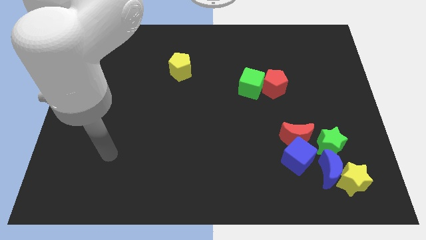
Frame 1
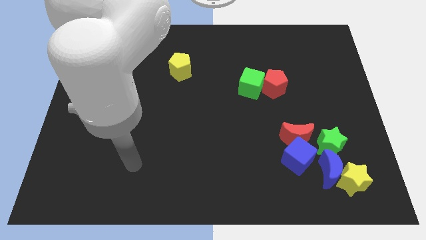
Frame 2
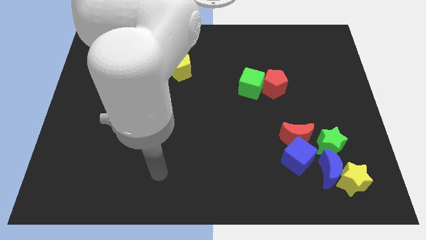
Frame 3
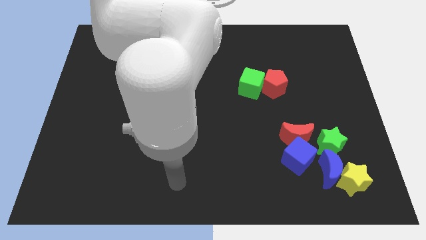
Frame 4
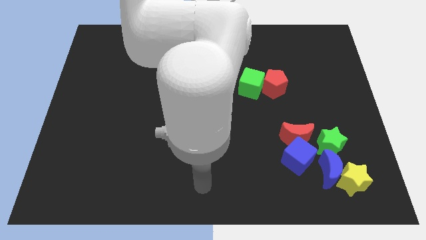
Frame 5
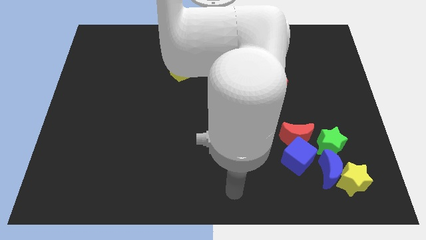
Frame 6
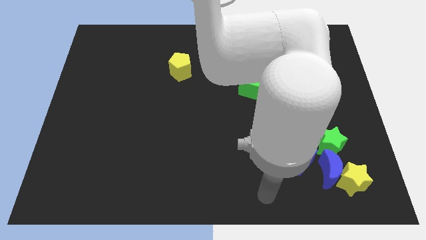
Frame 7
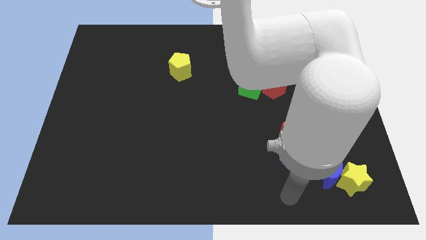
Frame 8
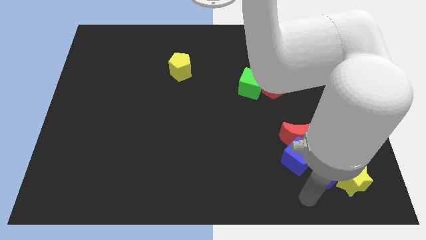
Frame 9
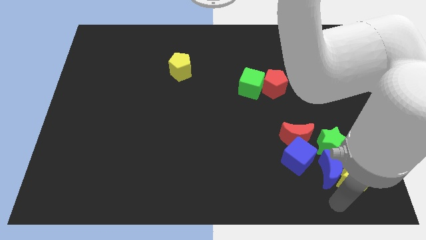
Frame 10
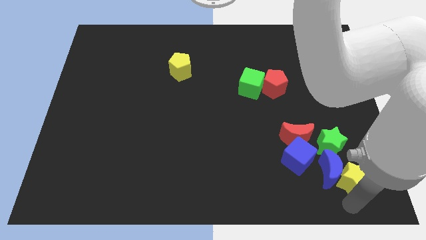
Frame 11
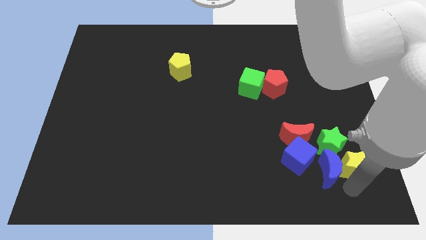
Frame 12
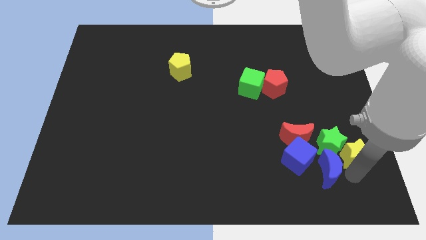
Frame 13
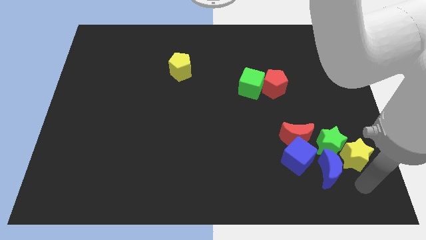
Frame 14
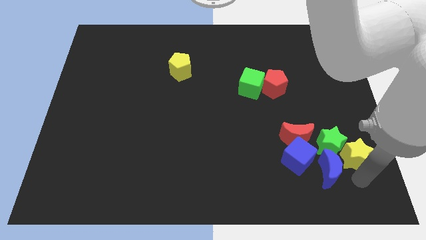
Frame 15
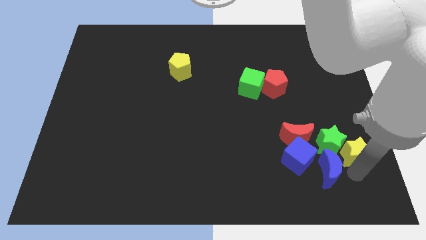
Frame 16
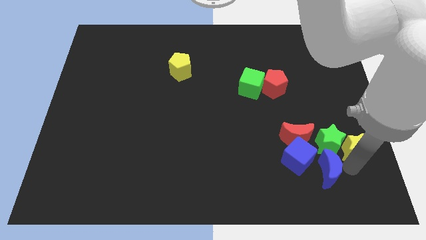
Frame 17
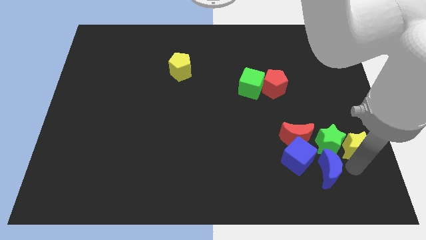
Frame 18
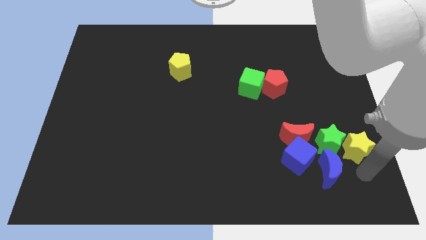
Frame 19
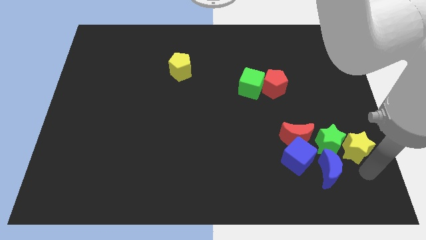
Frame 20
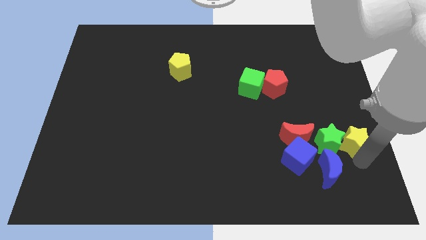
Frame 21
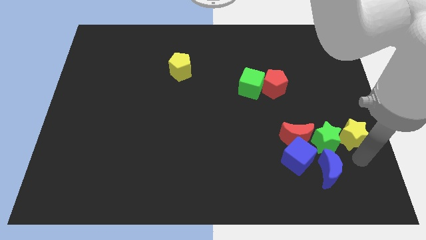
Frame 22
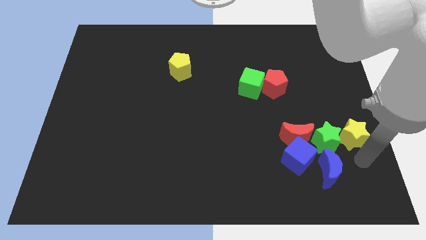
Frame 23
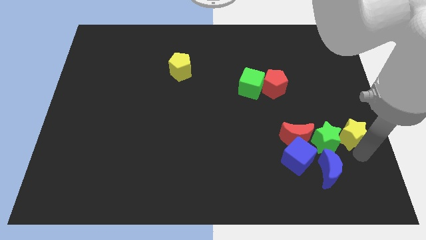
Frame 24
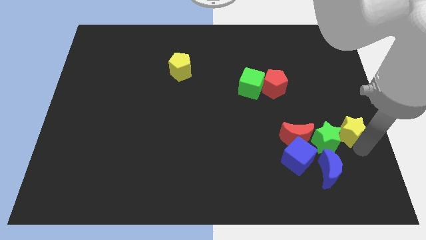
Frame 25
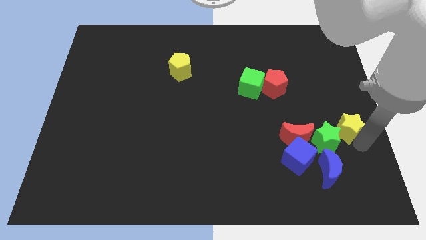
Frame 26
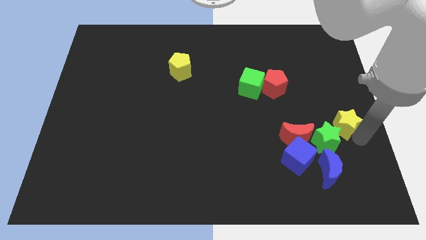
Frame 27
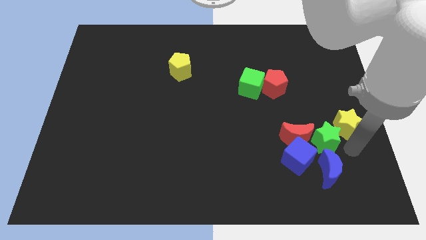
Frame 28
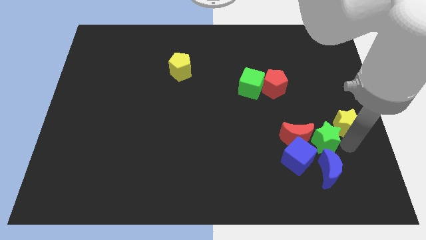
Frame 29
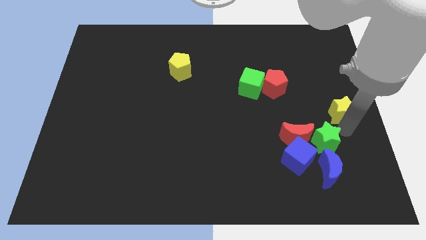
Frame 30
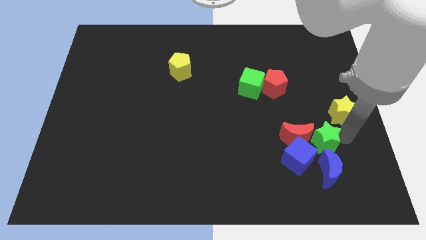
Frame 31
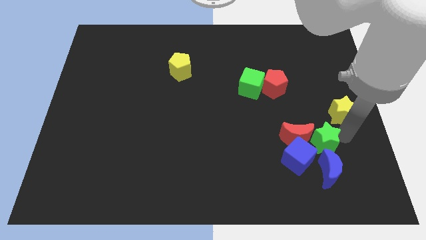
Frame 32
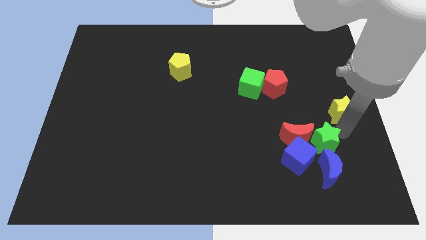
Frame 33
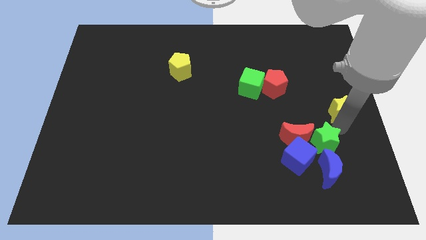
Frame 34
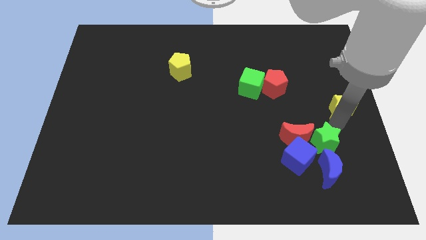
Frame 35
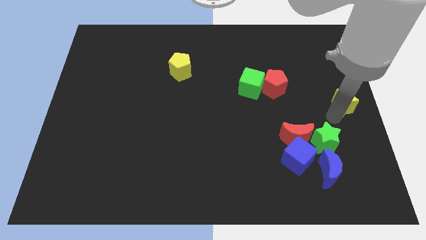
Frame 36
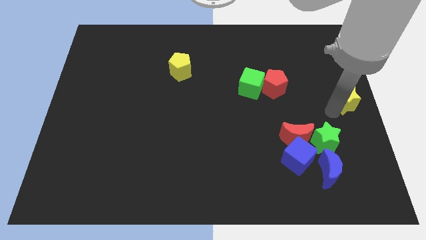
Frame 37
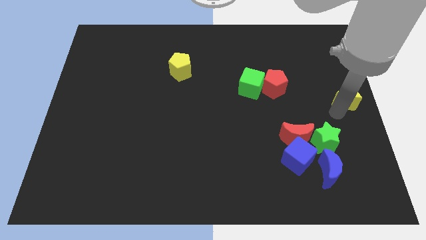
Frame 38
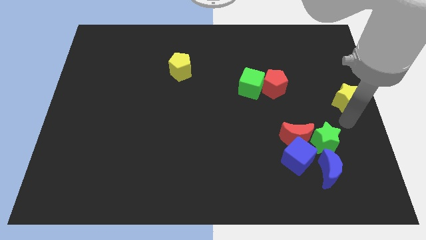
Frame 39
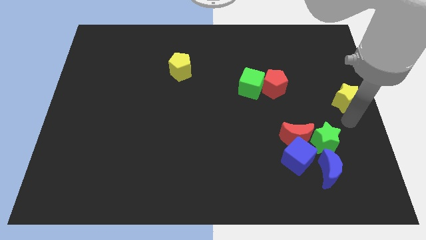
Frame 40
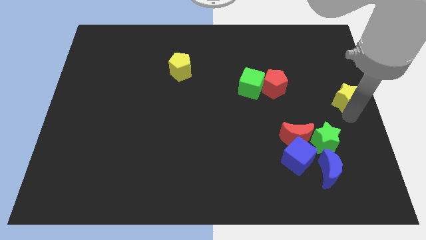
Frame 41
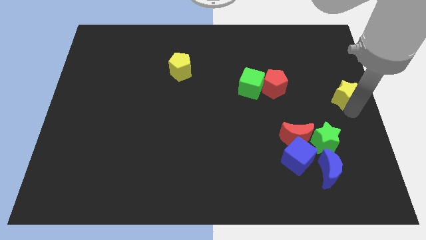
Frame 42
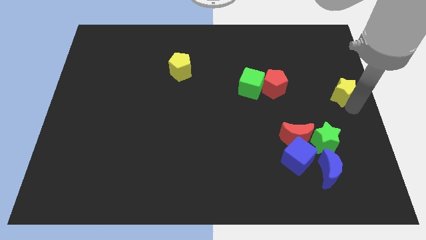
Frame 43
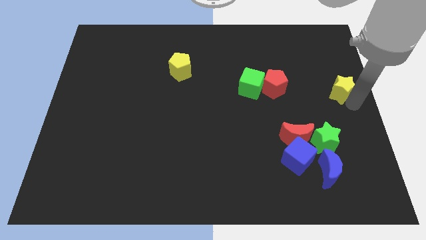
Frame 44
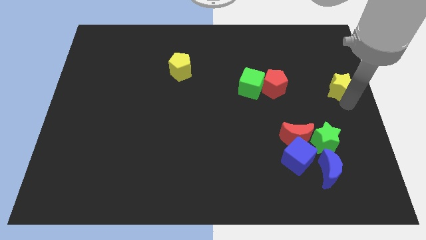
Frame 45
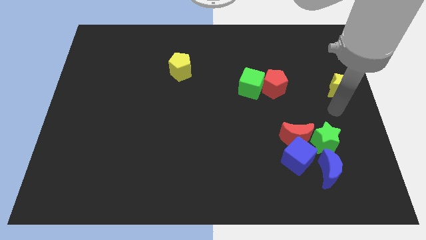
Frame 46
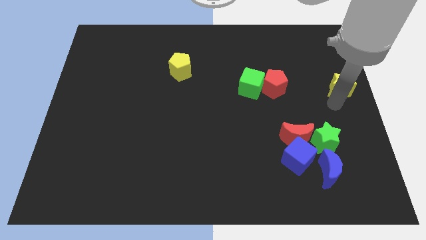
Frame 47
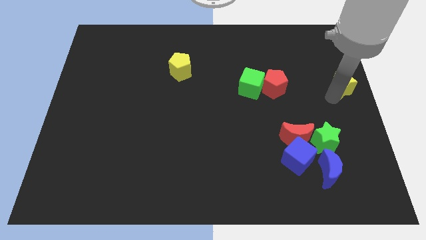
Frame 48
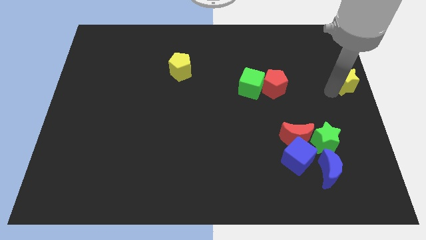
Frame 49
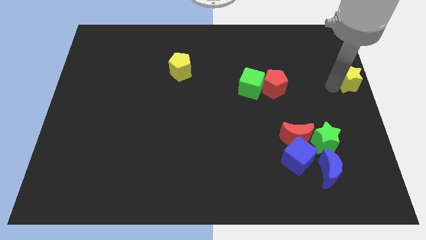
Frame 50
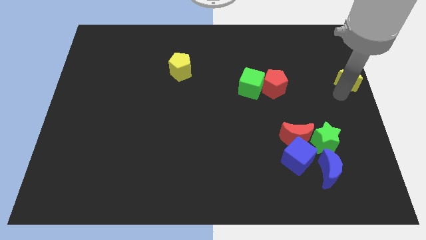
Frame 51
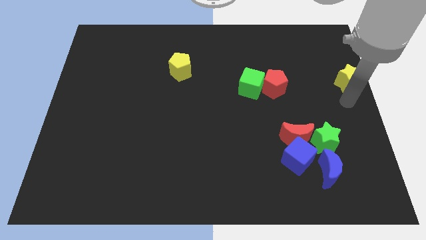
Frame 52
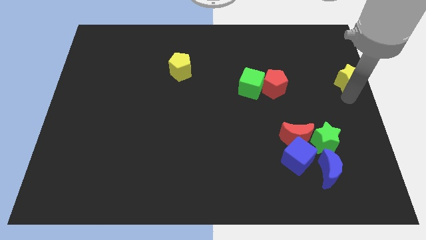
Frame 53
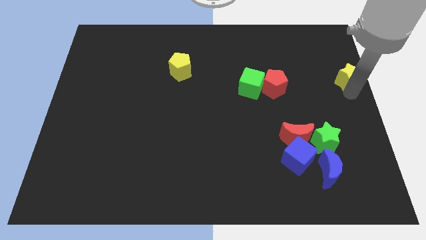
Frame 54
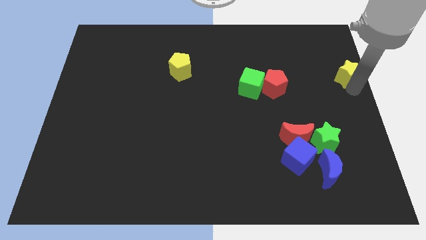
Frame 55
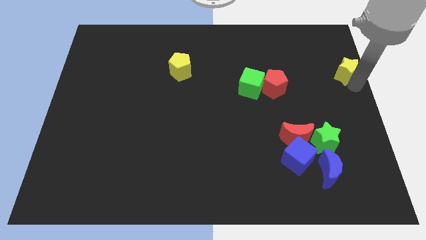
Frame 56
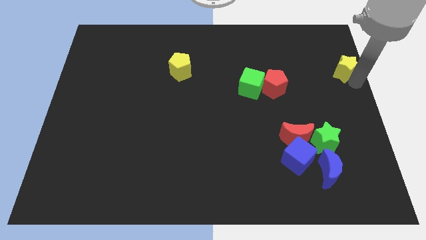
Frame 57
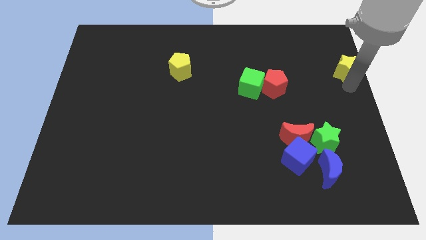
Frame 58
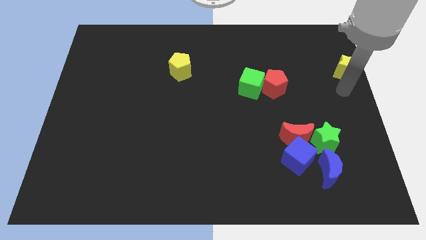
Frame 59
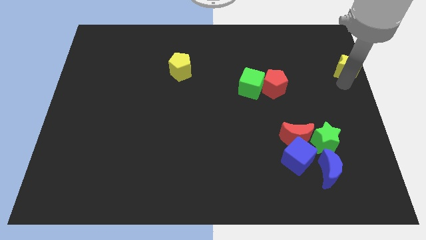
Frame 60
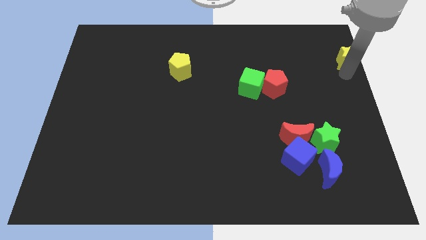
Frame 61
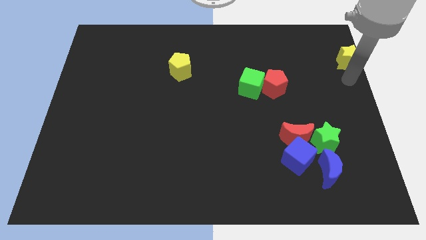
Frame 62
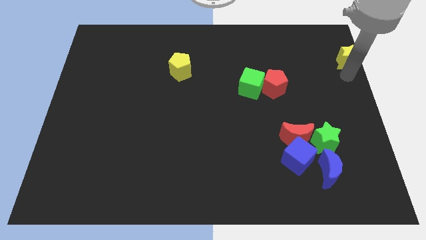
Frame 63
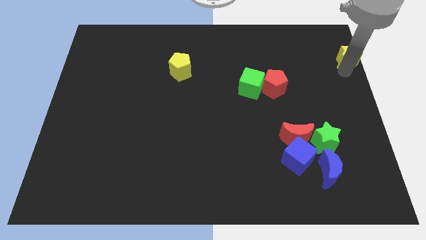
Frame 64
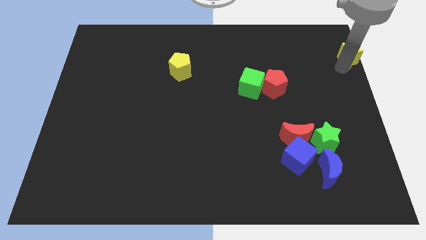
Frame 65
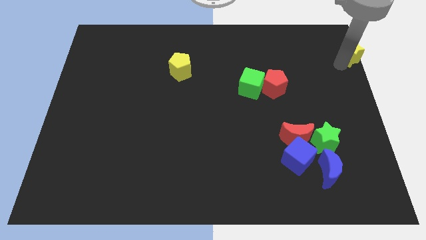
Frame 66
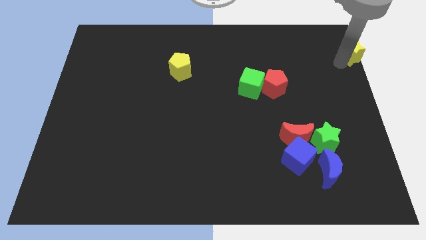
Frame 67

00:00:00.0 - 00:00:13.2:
slide the yellow star to the upper right corner
